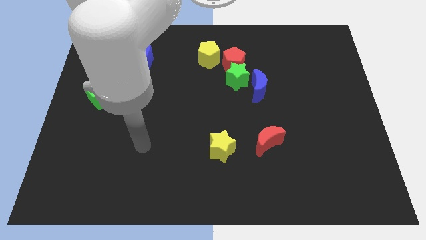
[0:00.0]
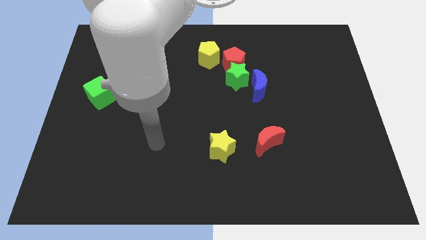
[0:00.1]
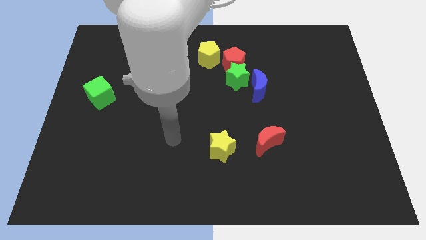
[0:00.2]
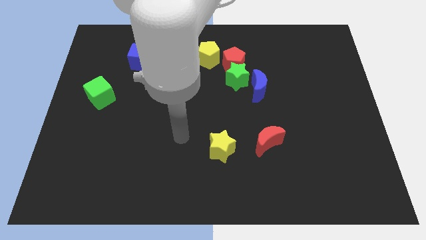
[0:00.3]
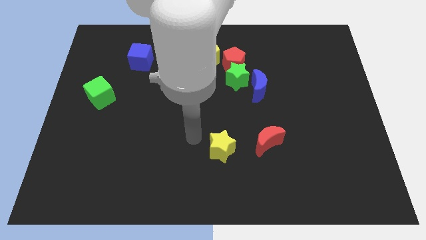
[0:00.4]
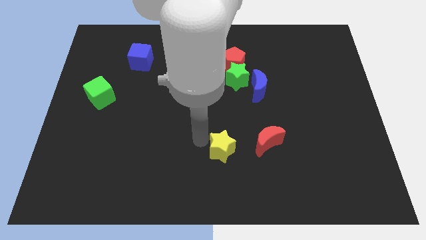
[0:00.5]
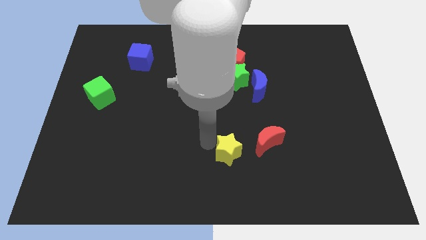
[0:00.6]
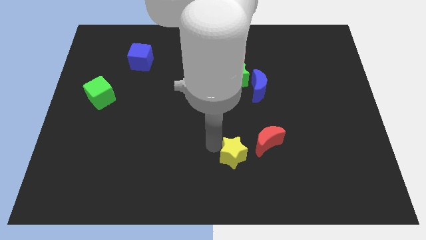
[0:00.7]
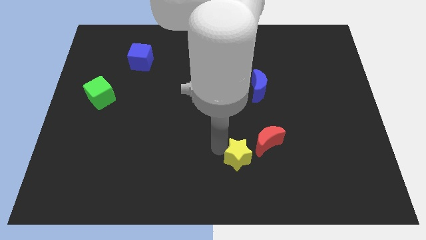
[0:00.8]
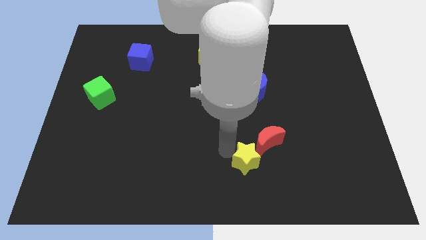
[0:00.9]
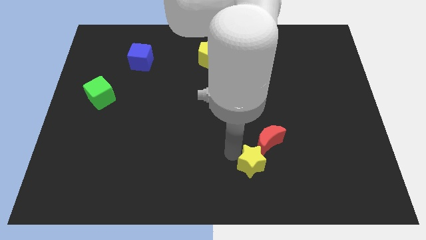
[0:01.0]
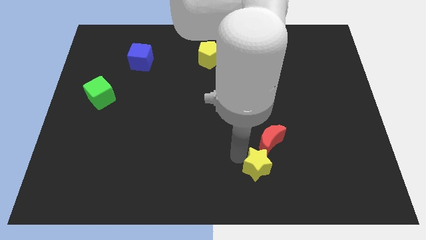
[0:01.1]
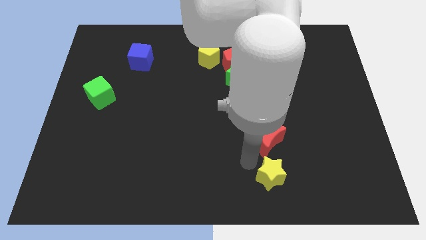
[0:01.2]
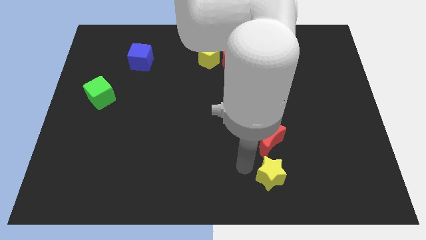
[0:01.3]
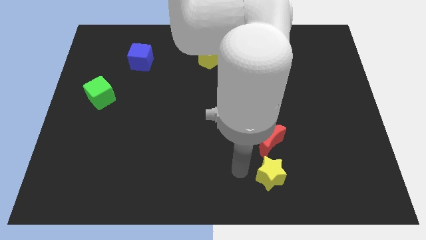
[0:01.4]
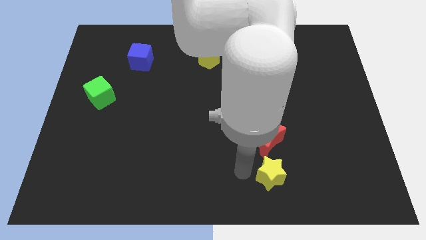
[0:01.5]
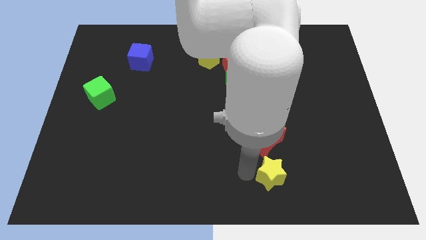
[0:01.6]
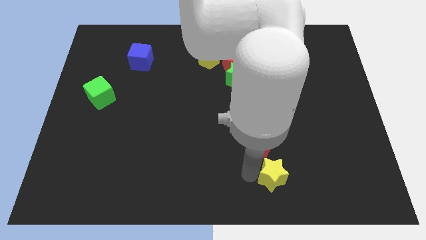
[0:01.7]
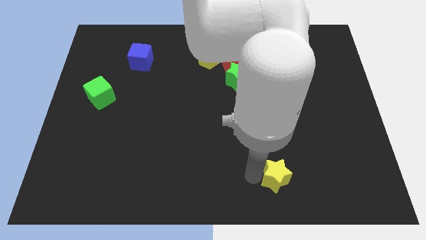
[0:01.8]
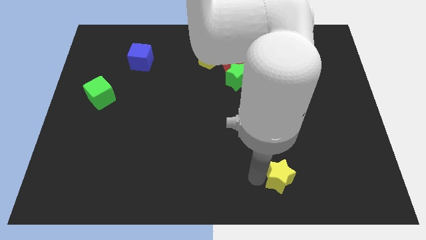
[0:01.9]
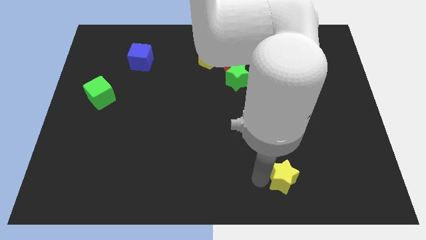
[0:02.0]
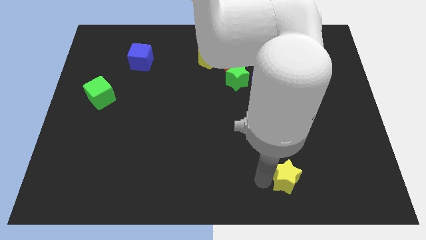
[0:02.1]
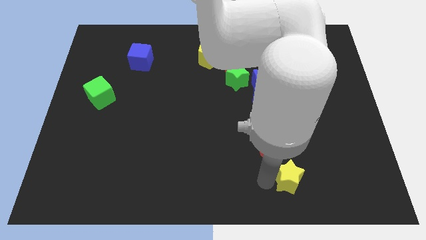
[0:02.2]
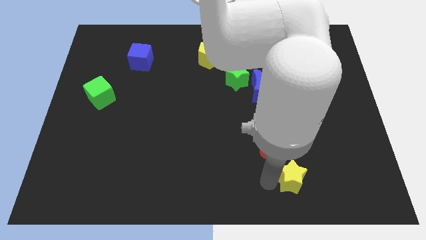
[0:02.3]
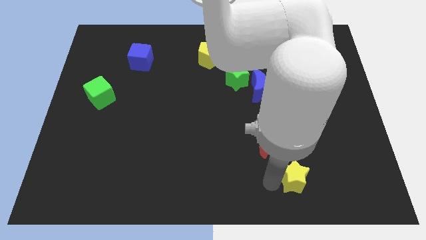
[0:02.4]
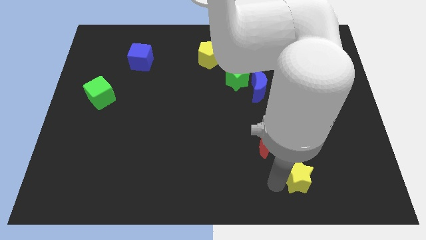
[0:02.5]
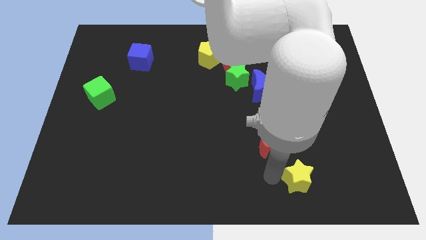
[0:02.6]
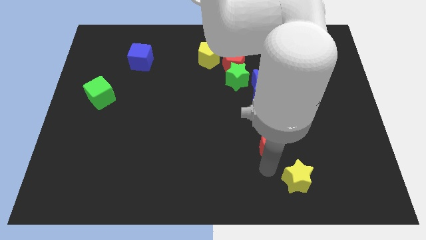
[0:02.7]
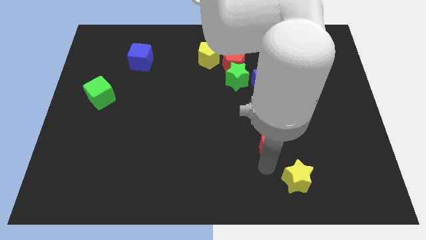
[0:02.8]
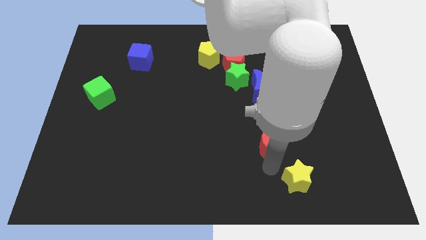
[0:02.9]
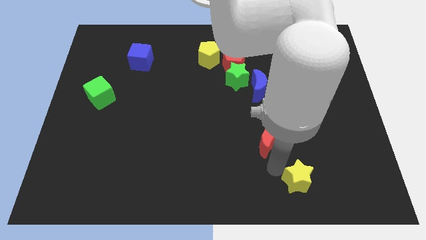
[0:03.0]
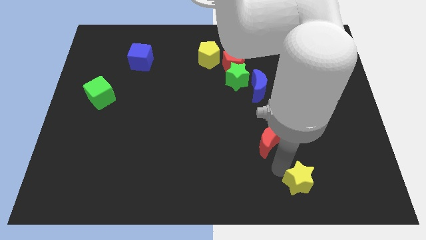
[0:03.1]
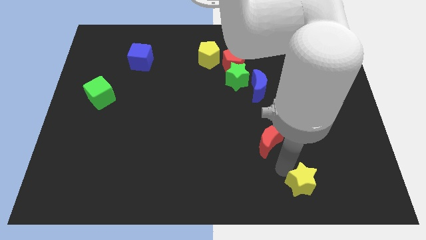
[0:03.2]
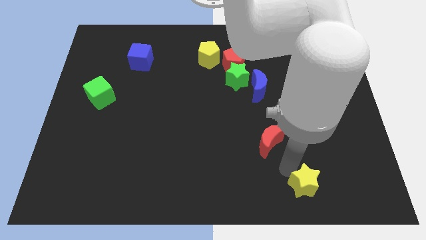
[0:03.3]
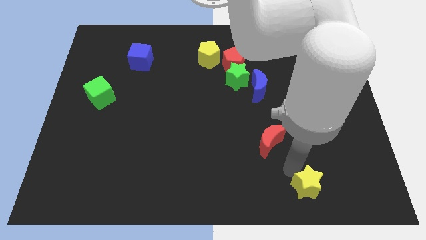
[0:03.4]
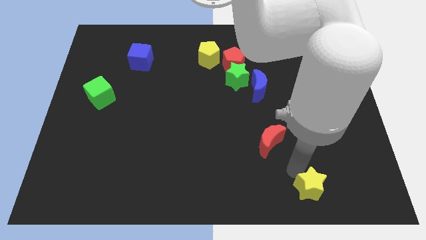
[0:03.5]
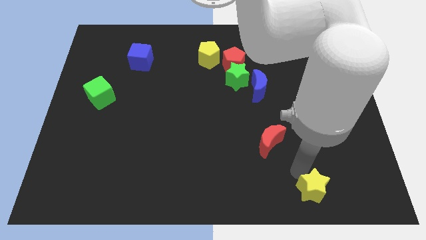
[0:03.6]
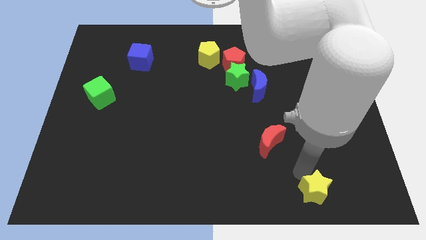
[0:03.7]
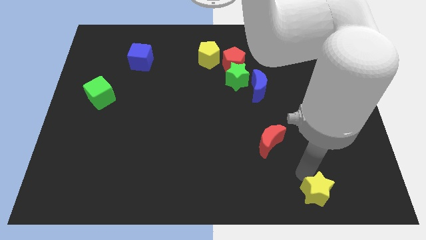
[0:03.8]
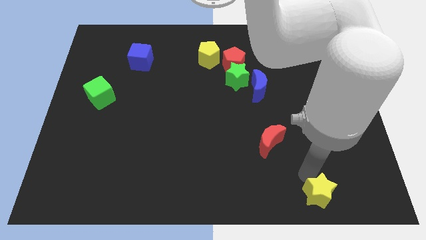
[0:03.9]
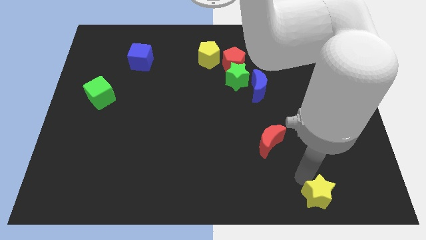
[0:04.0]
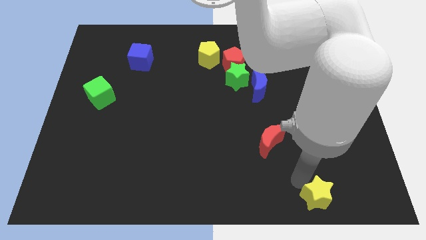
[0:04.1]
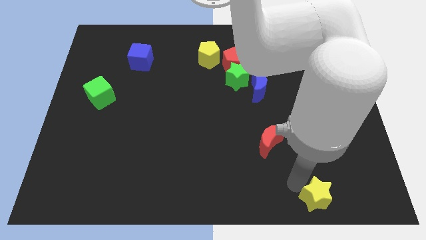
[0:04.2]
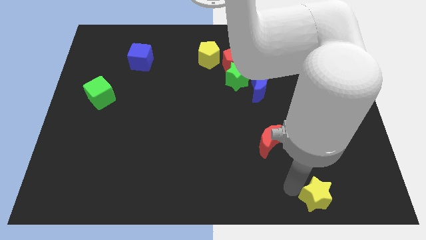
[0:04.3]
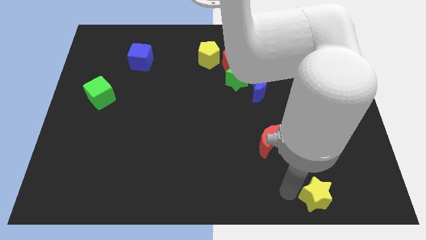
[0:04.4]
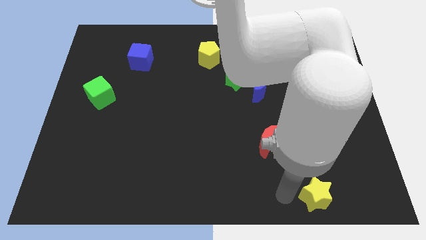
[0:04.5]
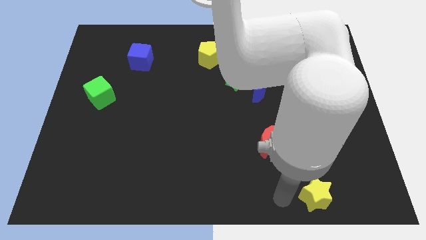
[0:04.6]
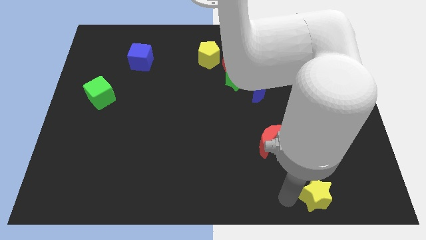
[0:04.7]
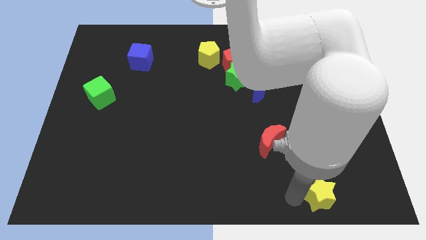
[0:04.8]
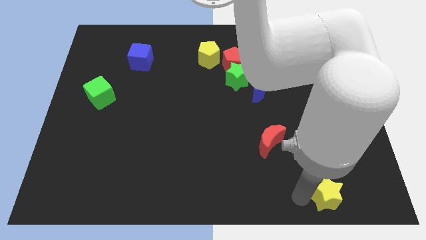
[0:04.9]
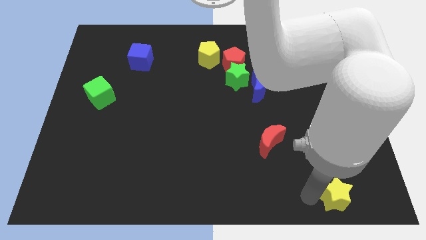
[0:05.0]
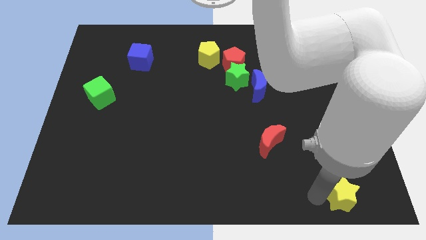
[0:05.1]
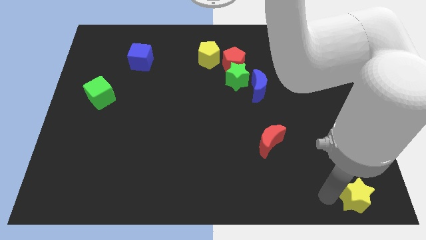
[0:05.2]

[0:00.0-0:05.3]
slide the yellow star to the lower right corner
